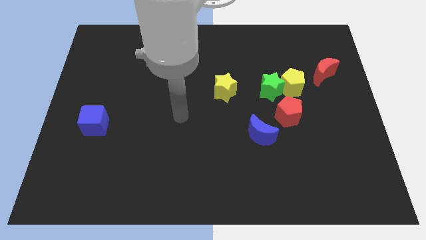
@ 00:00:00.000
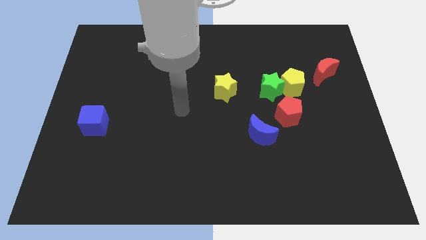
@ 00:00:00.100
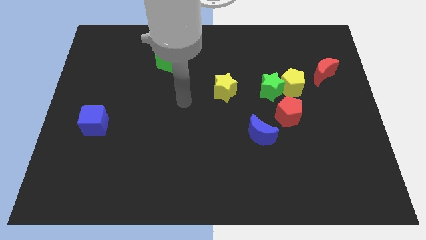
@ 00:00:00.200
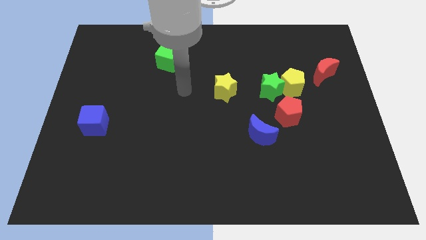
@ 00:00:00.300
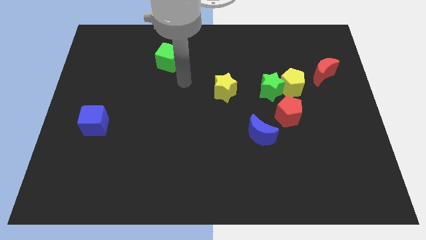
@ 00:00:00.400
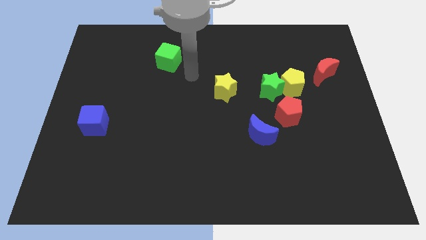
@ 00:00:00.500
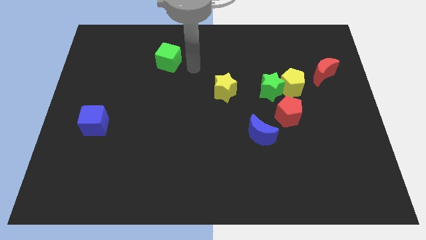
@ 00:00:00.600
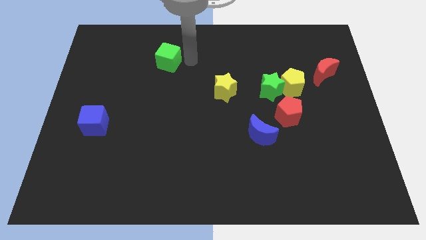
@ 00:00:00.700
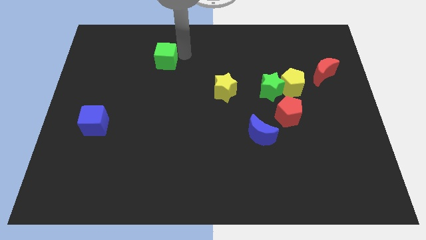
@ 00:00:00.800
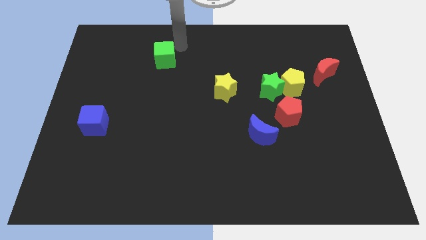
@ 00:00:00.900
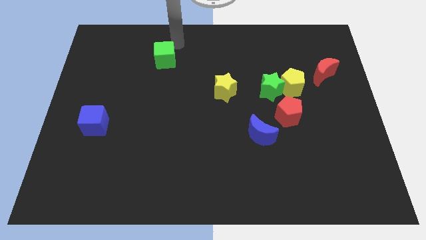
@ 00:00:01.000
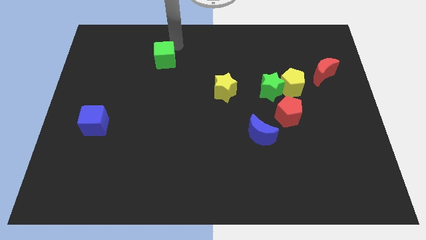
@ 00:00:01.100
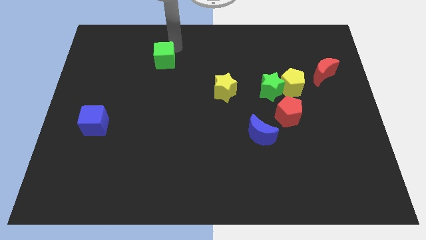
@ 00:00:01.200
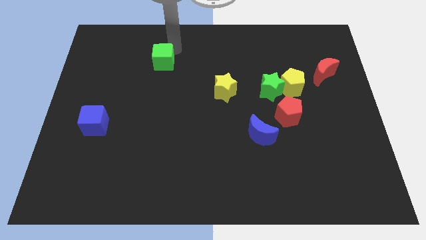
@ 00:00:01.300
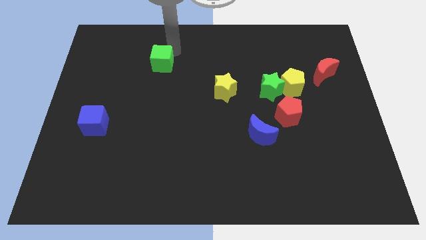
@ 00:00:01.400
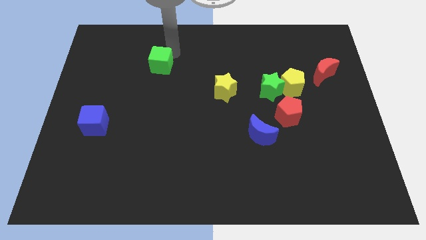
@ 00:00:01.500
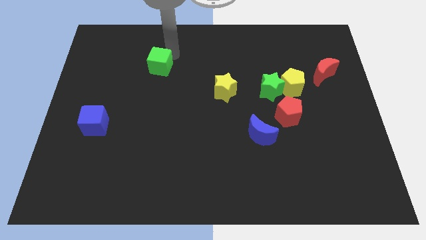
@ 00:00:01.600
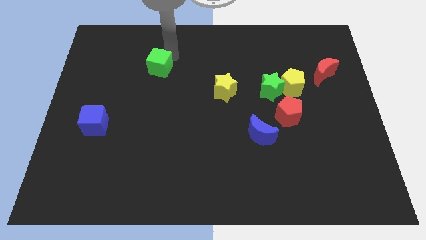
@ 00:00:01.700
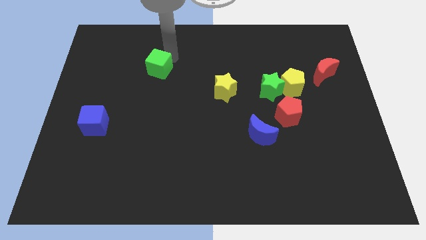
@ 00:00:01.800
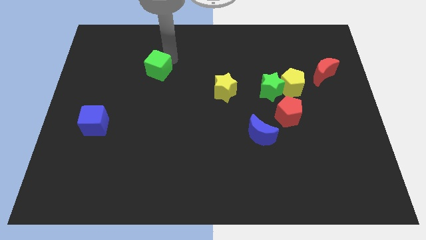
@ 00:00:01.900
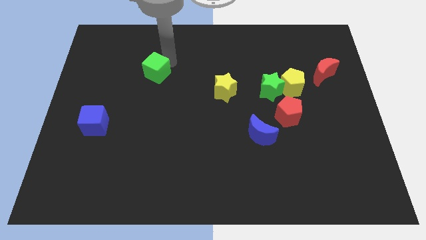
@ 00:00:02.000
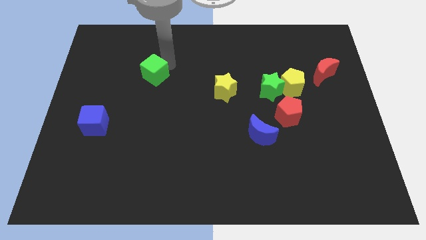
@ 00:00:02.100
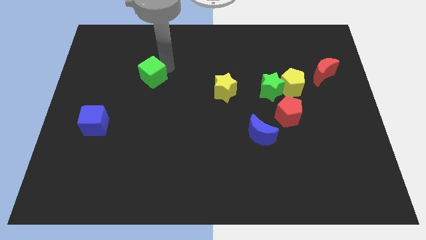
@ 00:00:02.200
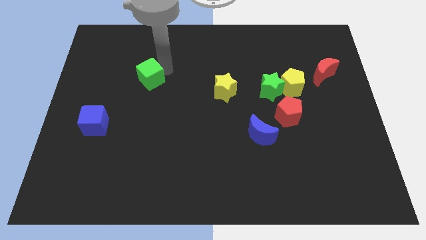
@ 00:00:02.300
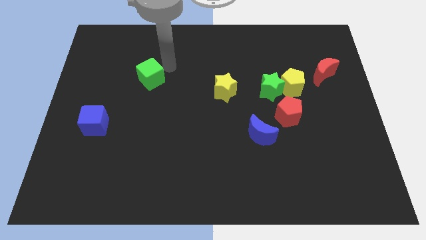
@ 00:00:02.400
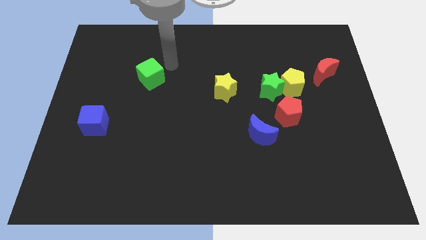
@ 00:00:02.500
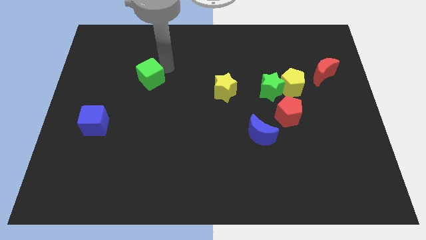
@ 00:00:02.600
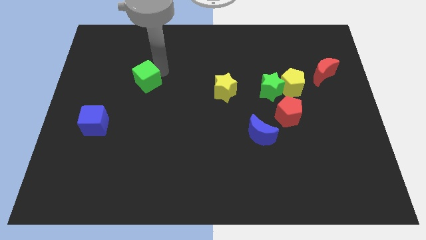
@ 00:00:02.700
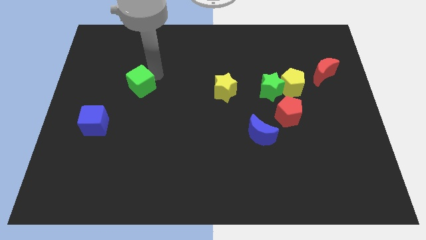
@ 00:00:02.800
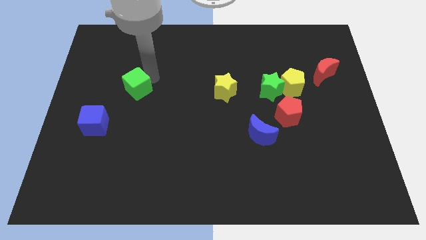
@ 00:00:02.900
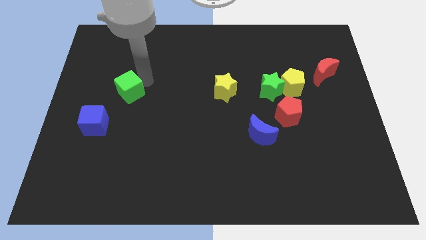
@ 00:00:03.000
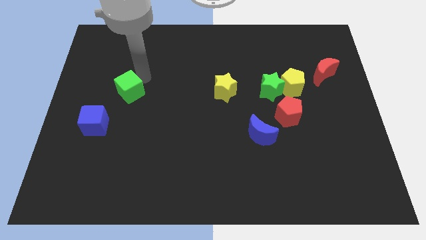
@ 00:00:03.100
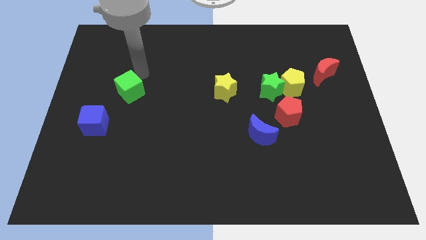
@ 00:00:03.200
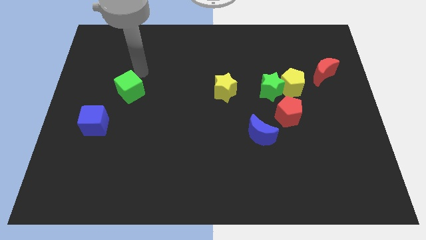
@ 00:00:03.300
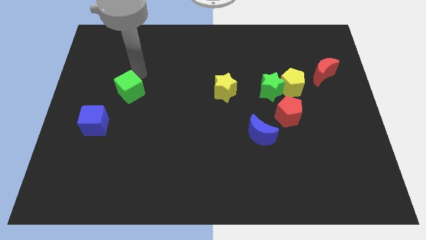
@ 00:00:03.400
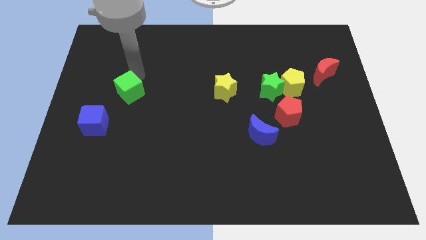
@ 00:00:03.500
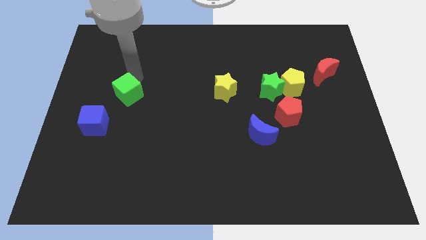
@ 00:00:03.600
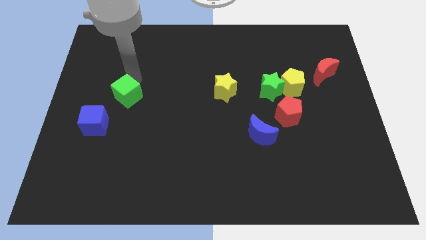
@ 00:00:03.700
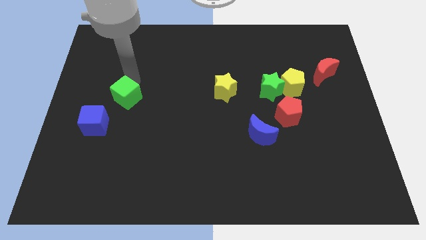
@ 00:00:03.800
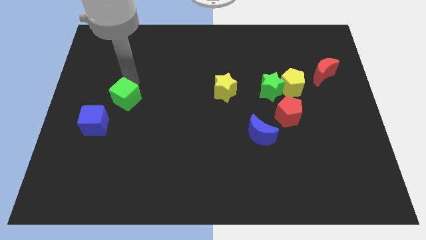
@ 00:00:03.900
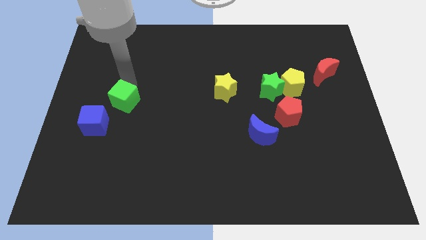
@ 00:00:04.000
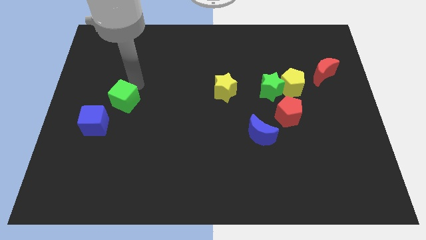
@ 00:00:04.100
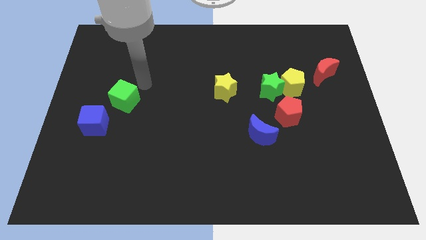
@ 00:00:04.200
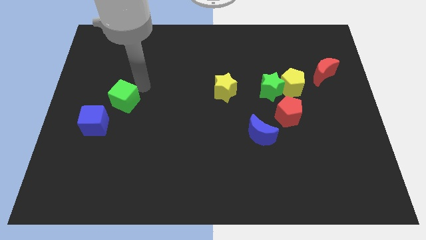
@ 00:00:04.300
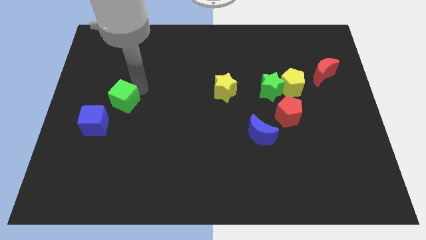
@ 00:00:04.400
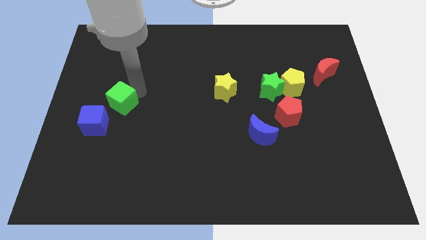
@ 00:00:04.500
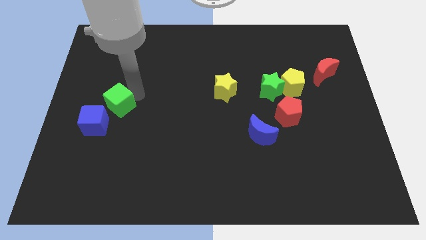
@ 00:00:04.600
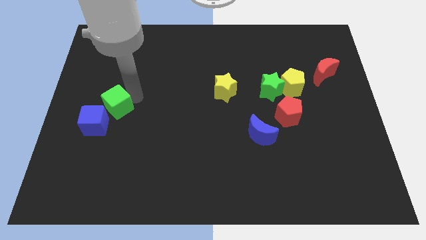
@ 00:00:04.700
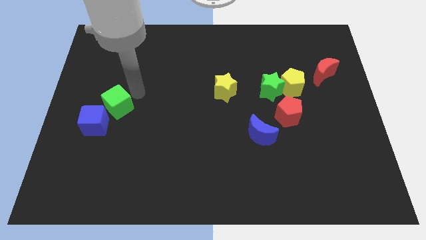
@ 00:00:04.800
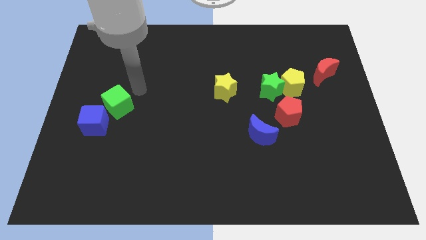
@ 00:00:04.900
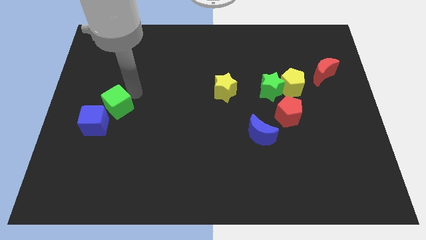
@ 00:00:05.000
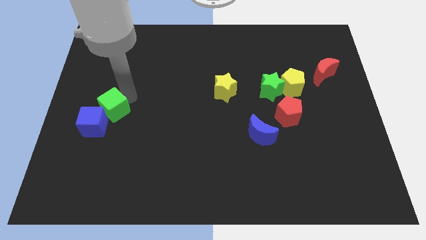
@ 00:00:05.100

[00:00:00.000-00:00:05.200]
push the green cube to the blue cube
